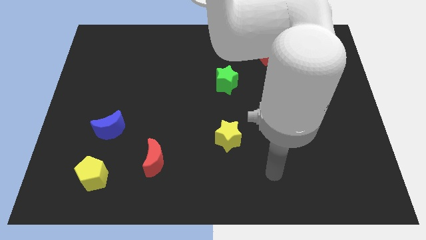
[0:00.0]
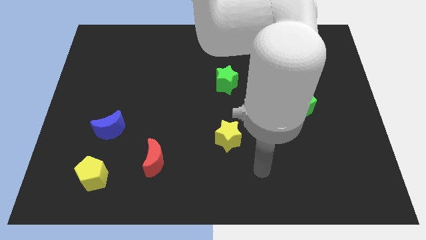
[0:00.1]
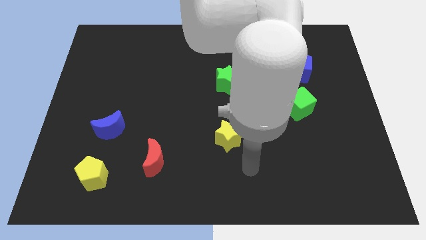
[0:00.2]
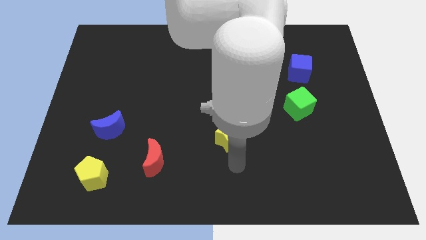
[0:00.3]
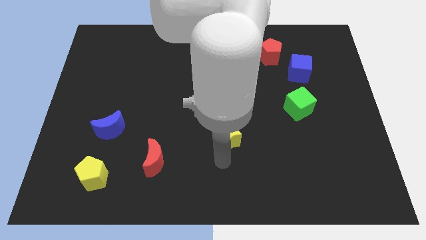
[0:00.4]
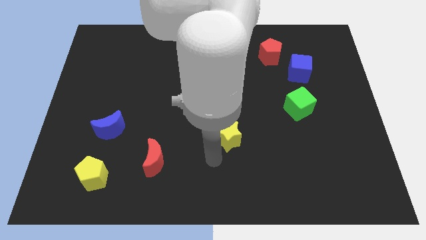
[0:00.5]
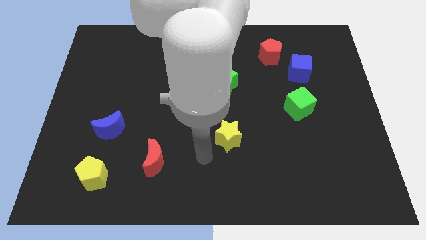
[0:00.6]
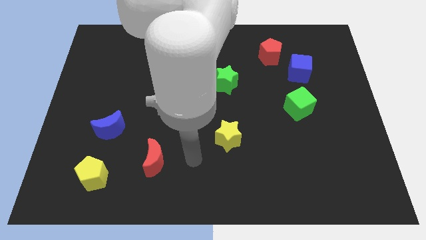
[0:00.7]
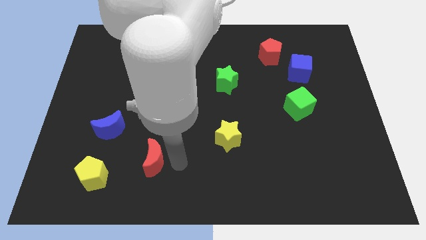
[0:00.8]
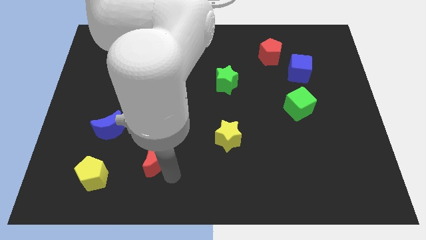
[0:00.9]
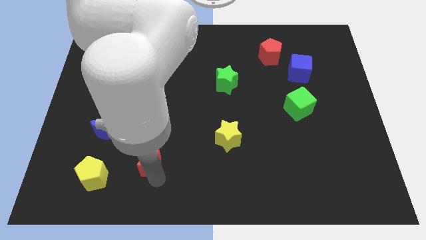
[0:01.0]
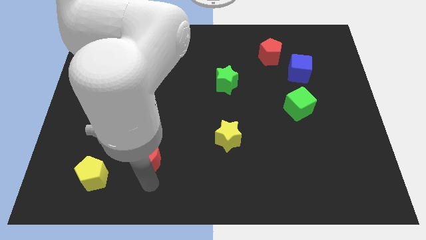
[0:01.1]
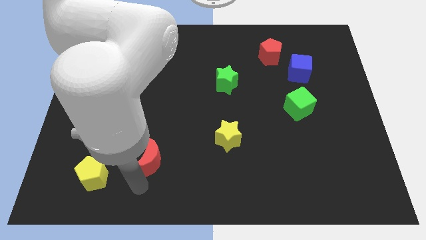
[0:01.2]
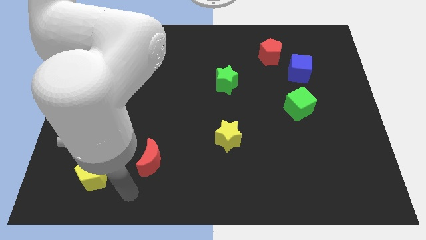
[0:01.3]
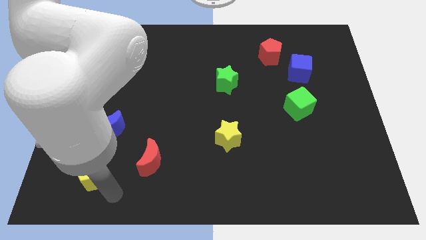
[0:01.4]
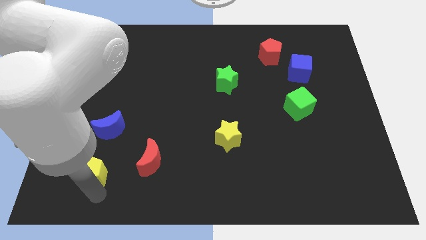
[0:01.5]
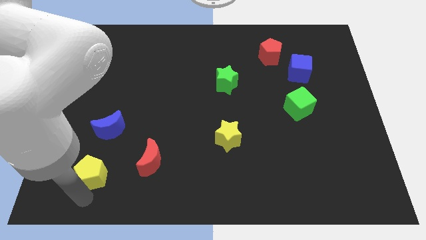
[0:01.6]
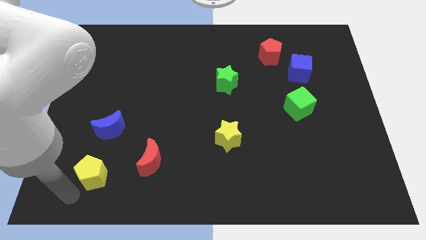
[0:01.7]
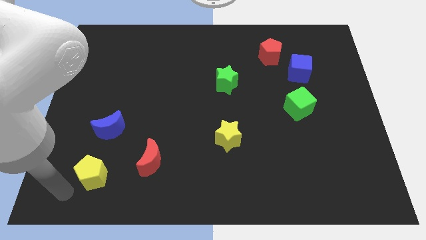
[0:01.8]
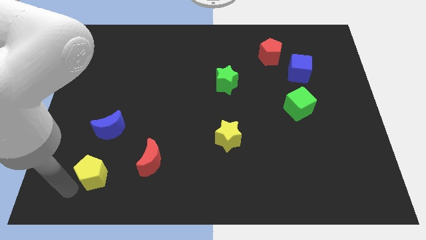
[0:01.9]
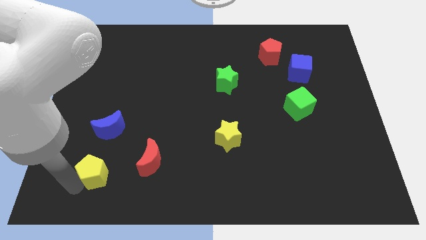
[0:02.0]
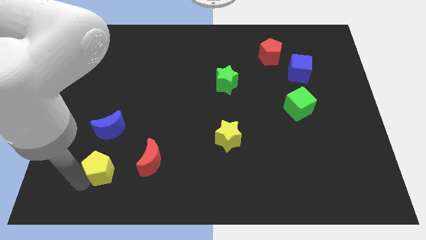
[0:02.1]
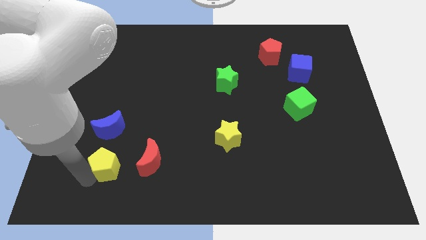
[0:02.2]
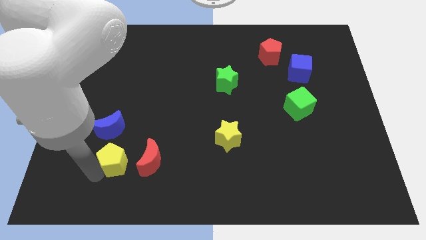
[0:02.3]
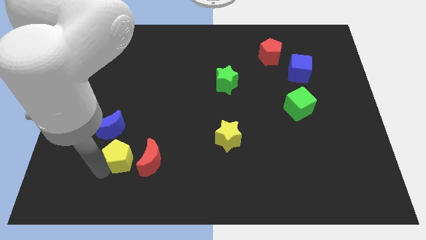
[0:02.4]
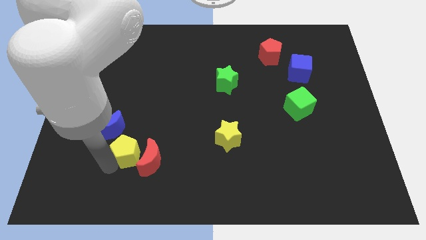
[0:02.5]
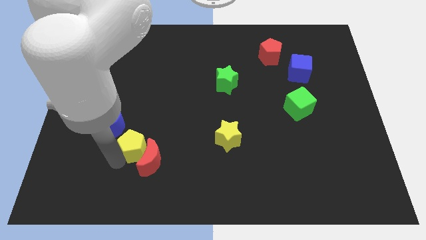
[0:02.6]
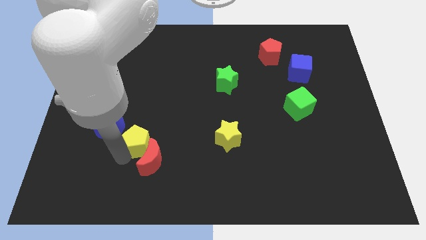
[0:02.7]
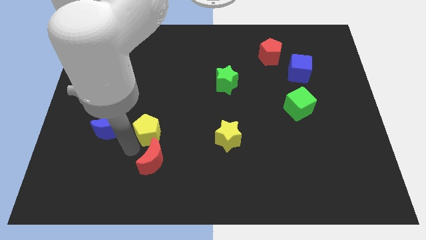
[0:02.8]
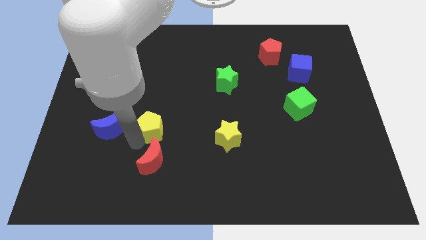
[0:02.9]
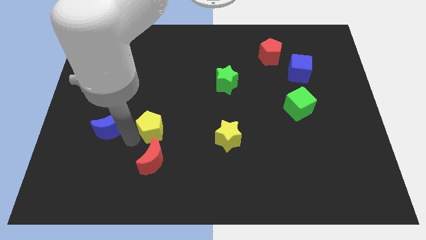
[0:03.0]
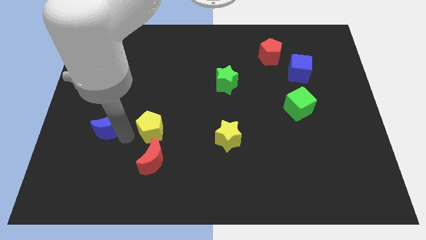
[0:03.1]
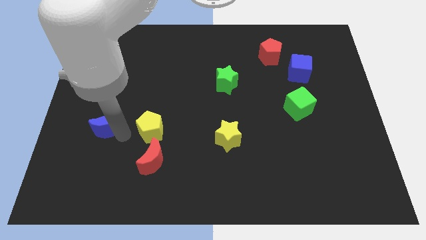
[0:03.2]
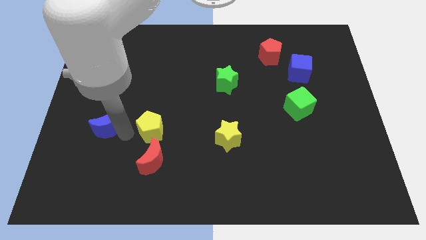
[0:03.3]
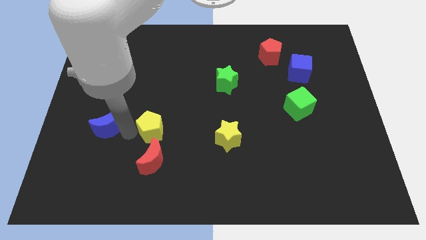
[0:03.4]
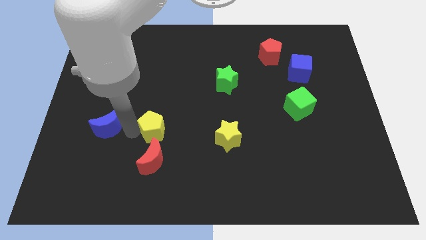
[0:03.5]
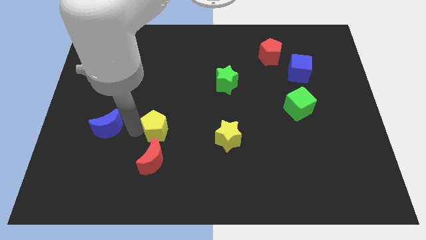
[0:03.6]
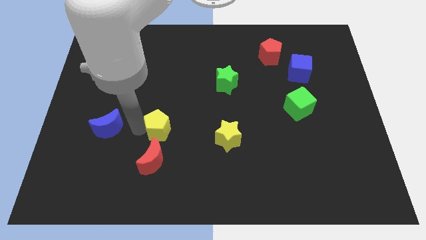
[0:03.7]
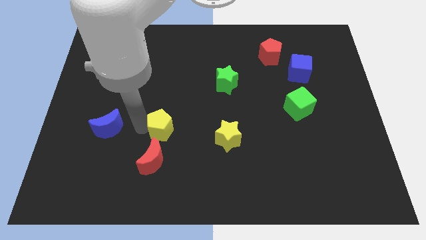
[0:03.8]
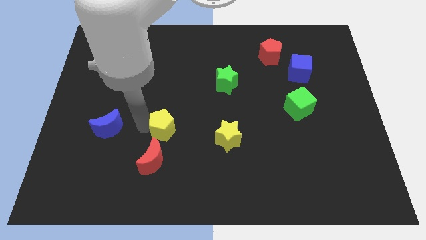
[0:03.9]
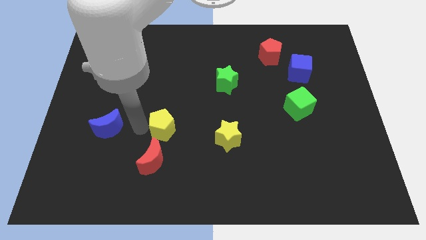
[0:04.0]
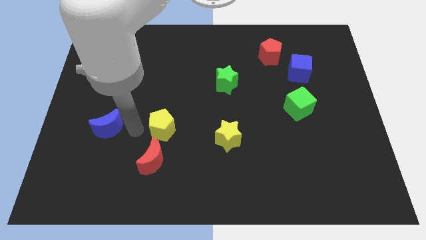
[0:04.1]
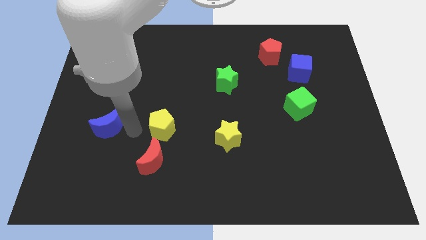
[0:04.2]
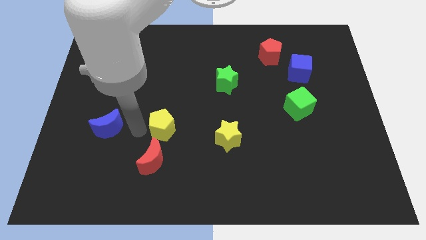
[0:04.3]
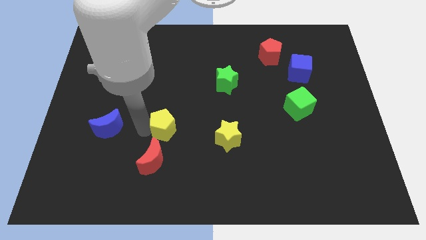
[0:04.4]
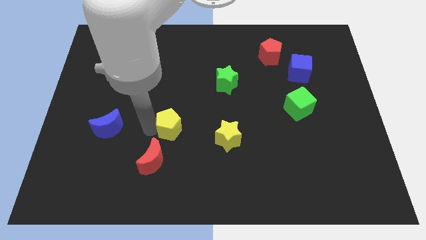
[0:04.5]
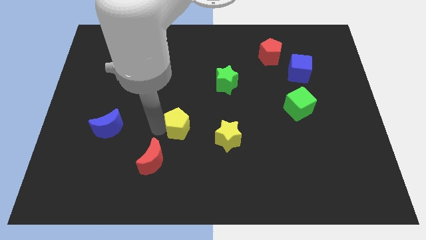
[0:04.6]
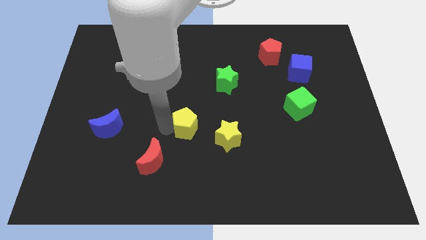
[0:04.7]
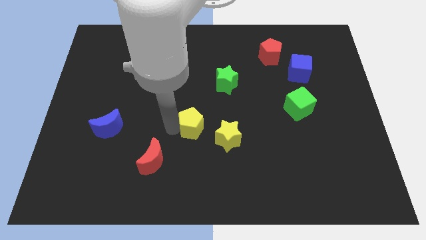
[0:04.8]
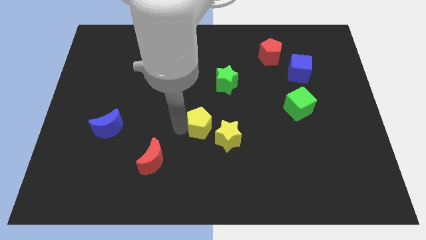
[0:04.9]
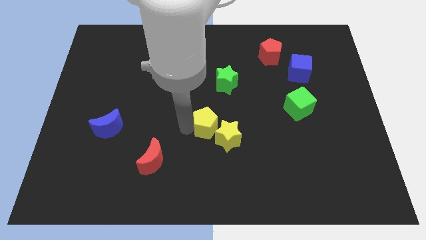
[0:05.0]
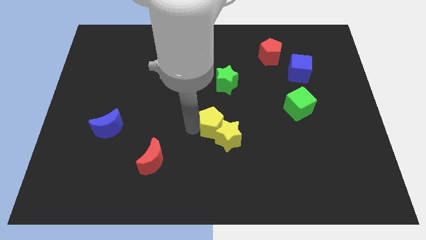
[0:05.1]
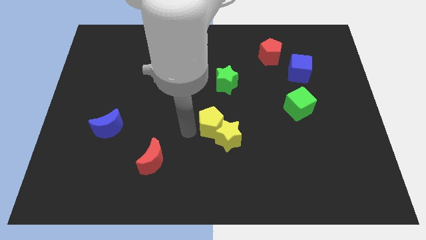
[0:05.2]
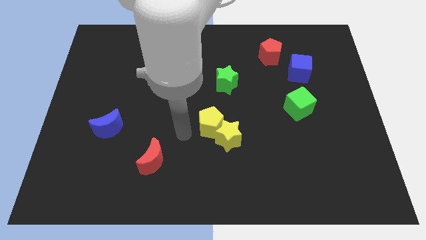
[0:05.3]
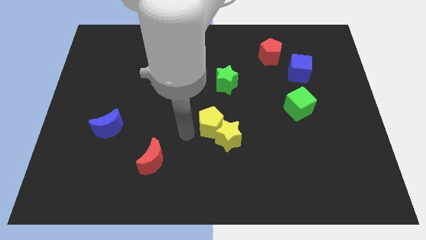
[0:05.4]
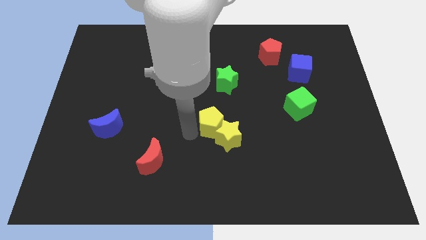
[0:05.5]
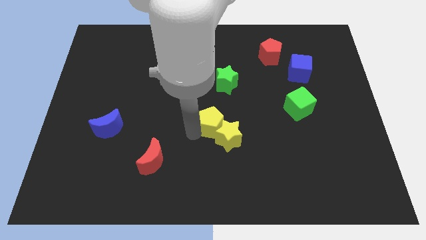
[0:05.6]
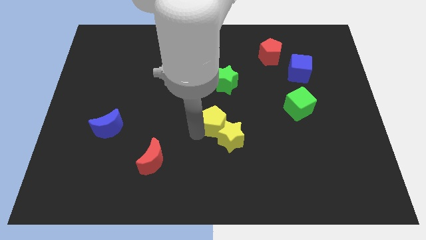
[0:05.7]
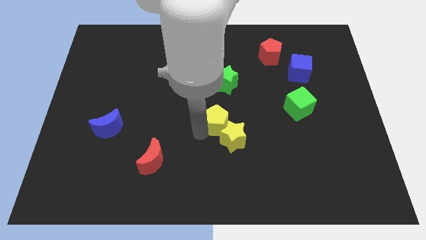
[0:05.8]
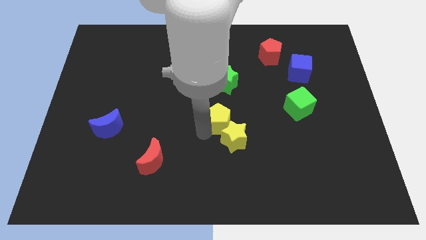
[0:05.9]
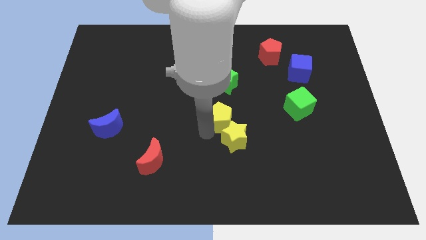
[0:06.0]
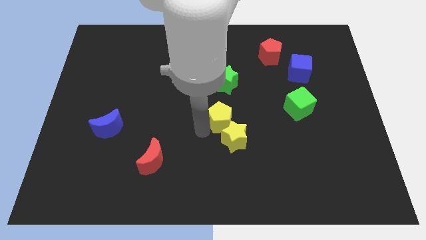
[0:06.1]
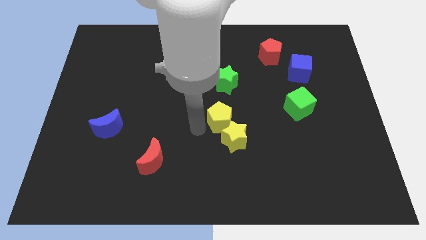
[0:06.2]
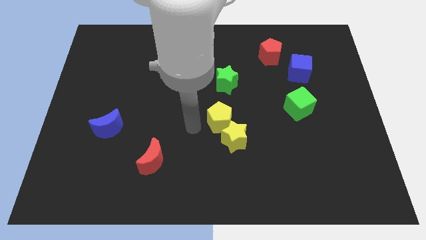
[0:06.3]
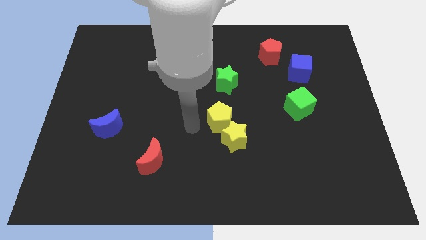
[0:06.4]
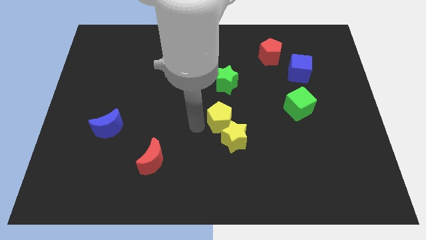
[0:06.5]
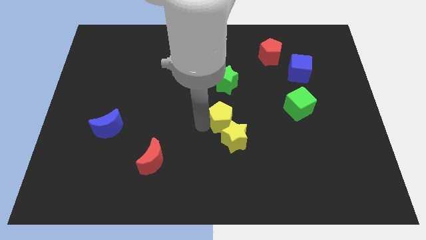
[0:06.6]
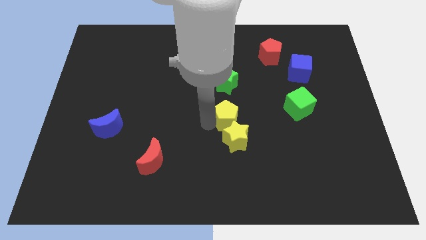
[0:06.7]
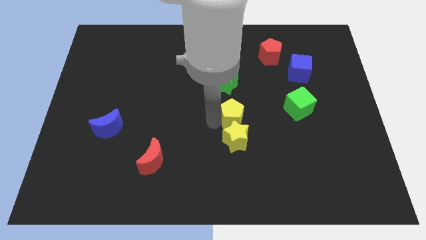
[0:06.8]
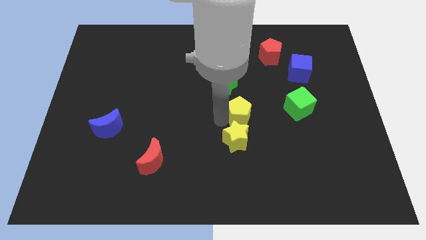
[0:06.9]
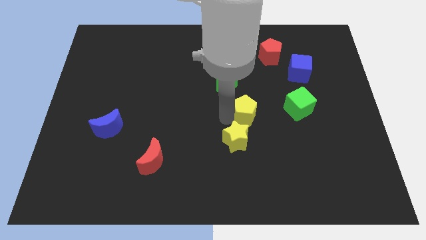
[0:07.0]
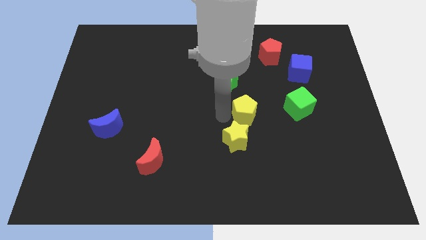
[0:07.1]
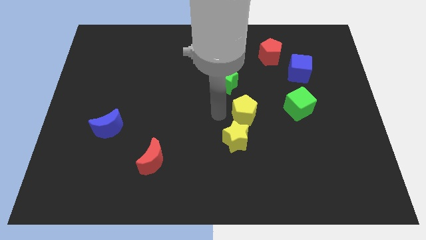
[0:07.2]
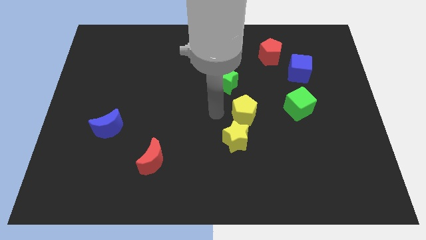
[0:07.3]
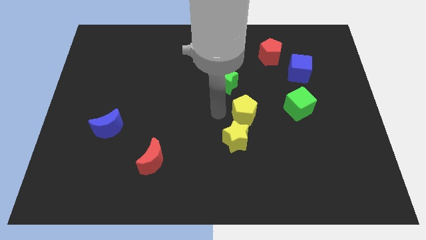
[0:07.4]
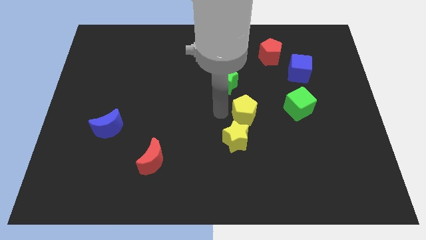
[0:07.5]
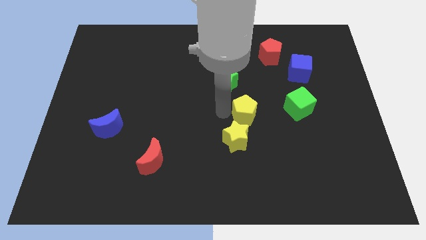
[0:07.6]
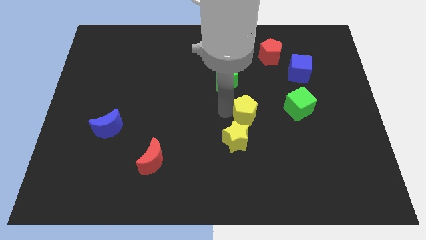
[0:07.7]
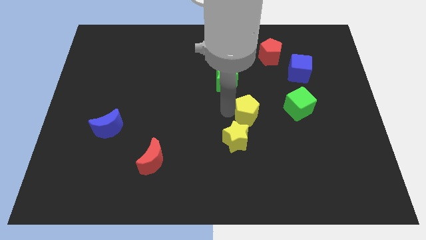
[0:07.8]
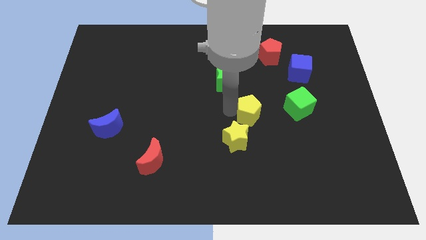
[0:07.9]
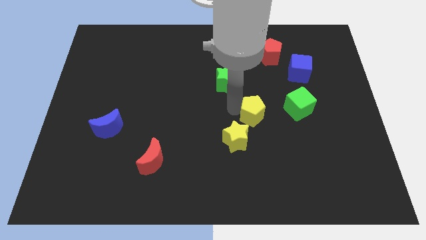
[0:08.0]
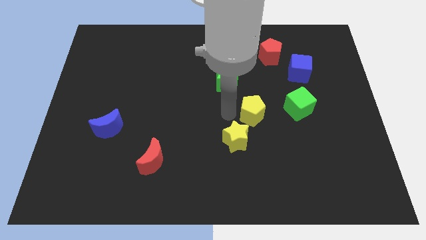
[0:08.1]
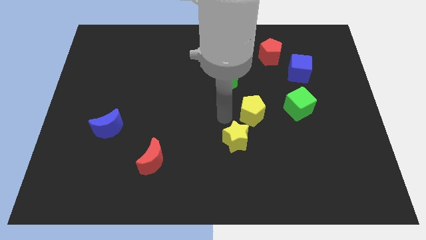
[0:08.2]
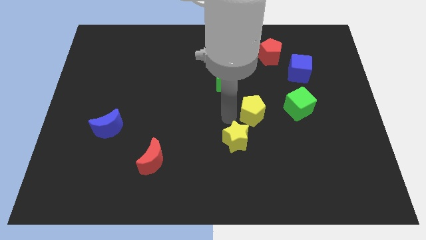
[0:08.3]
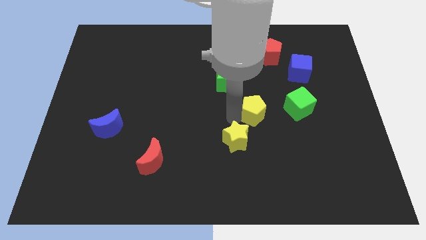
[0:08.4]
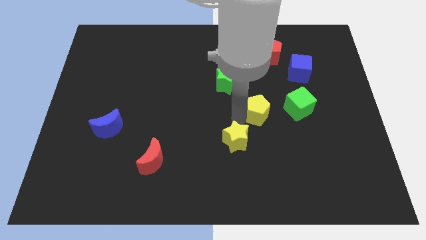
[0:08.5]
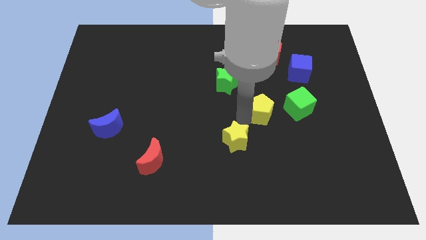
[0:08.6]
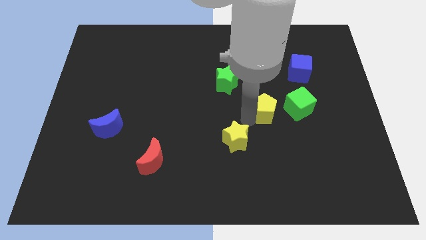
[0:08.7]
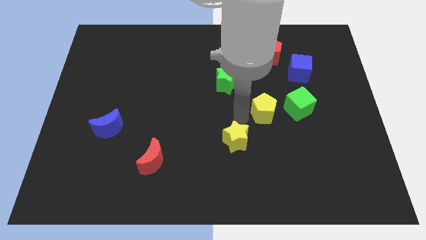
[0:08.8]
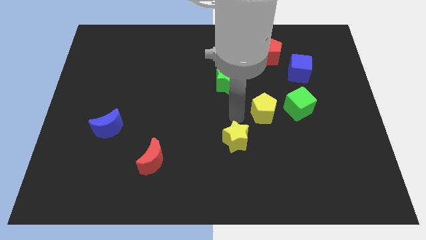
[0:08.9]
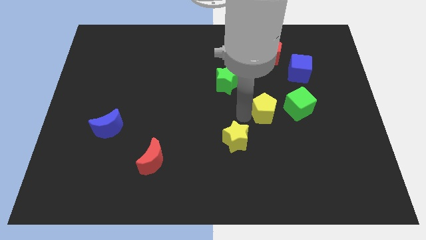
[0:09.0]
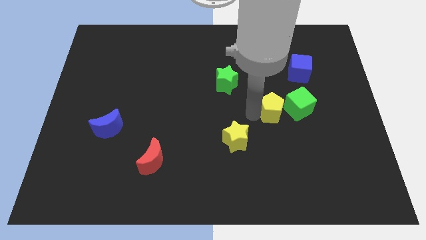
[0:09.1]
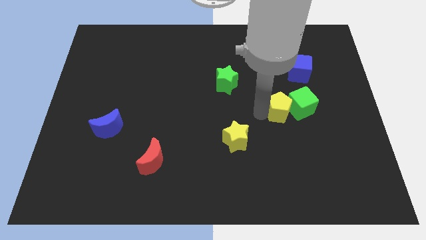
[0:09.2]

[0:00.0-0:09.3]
put the yellow pentagon next to the green cube
